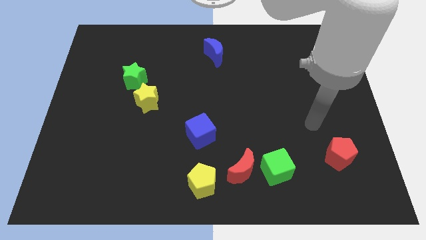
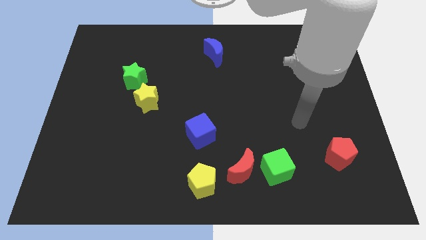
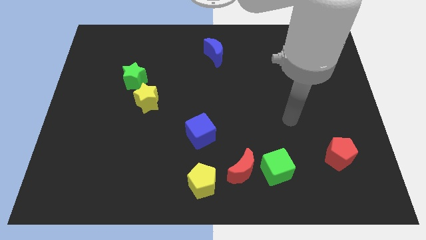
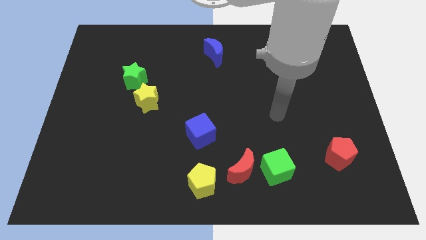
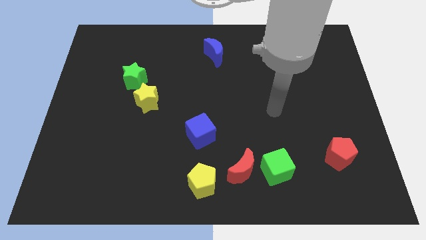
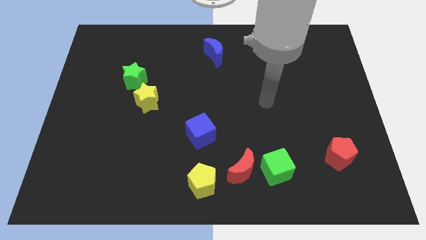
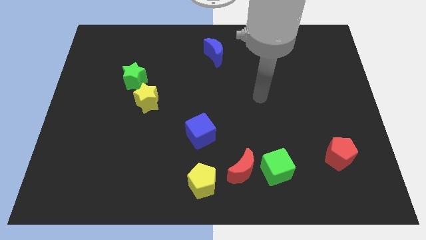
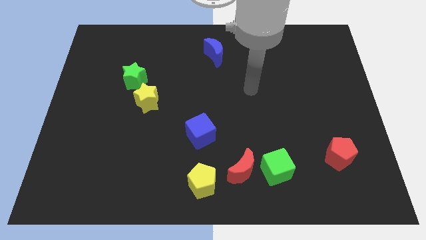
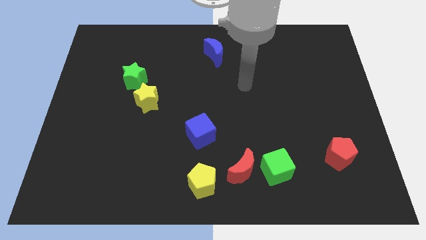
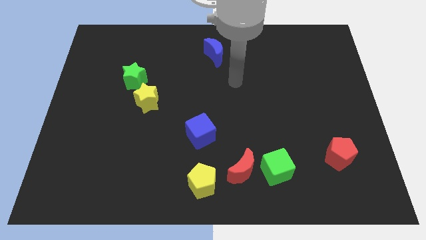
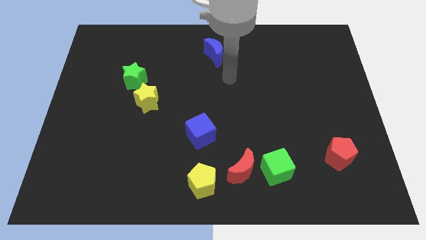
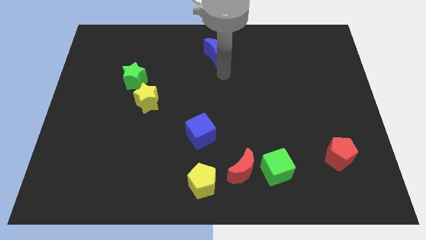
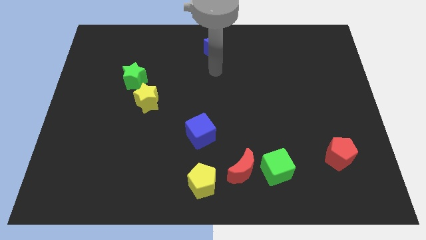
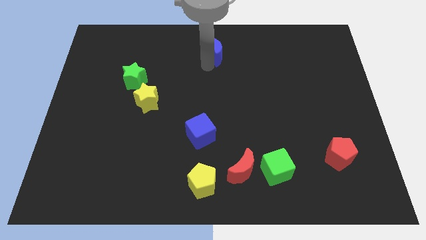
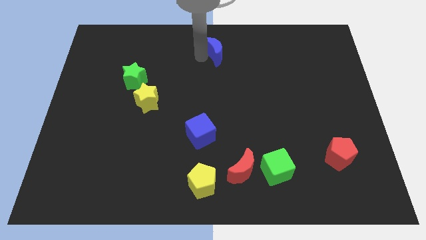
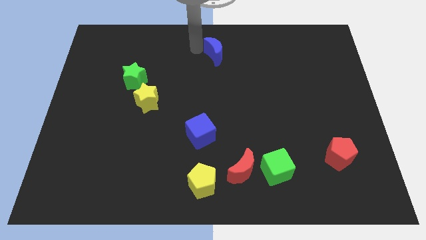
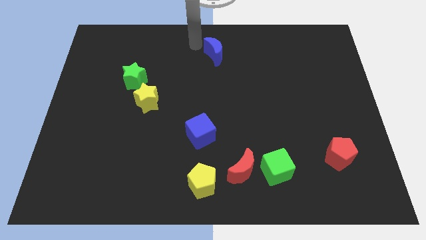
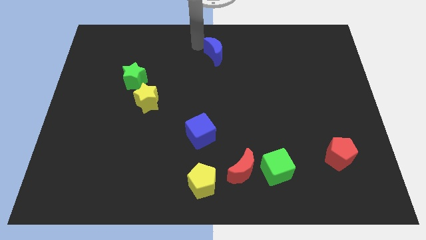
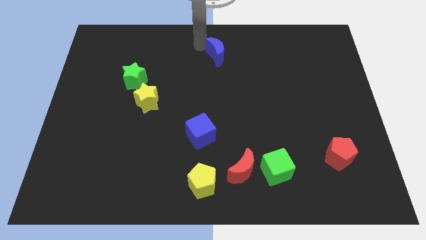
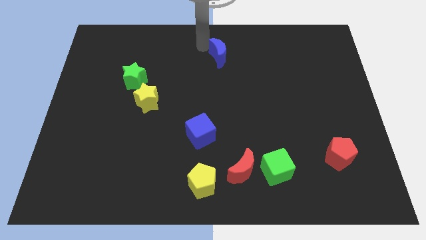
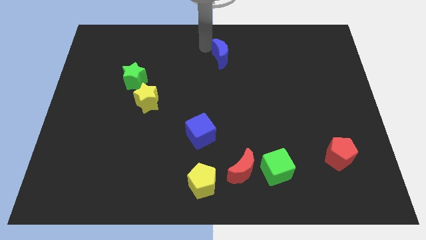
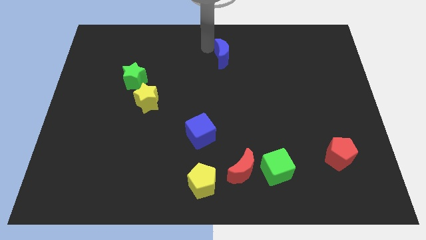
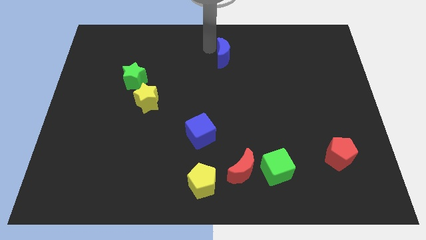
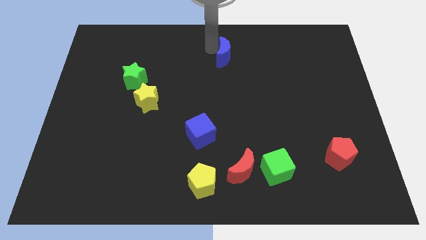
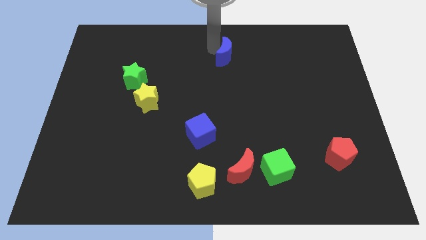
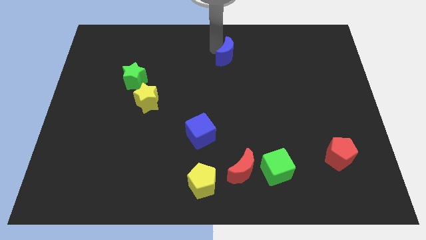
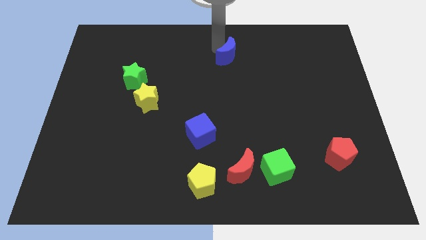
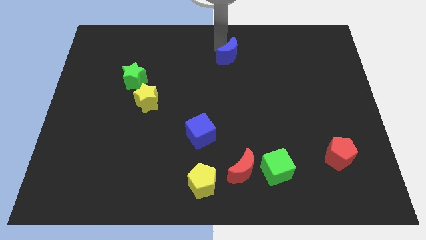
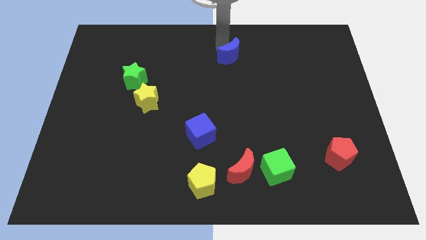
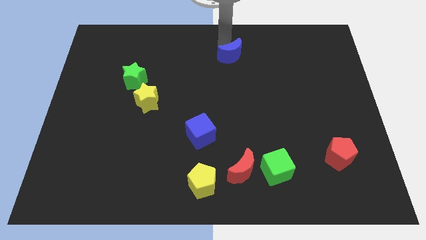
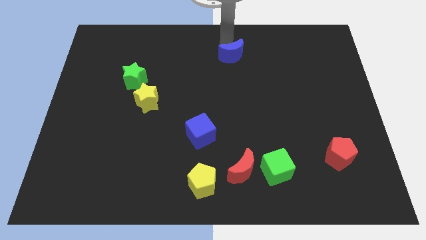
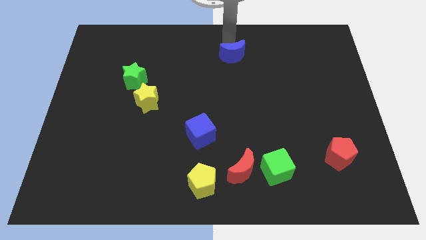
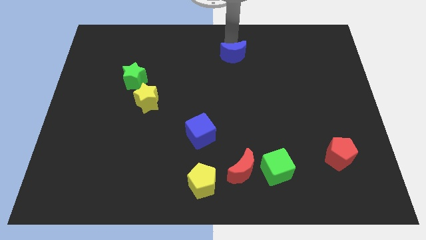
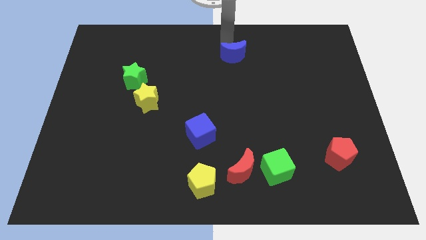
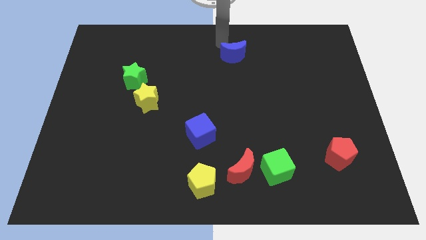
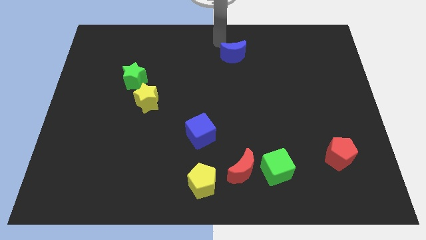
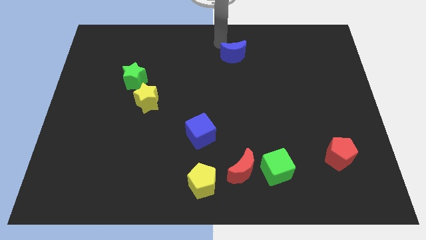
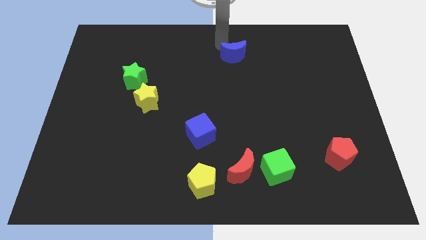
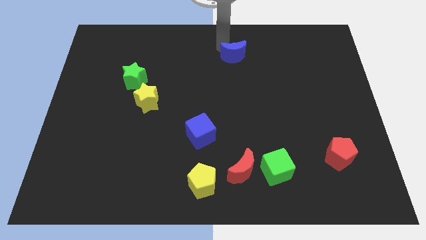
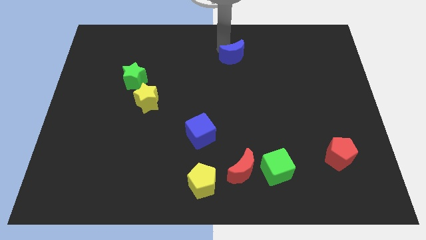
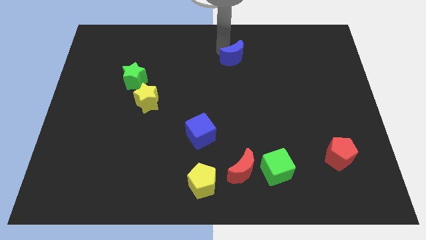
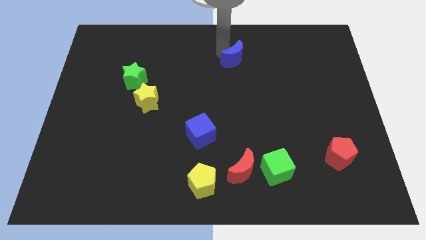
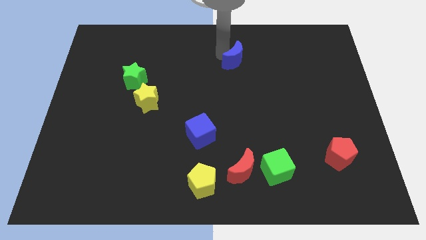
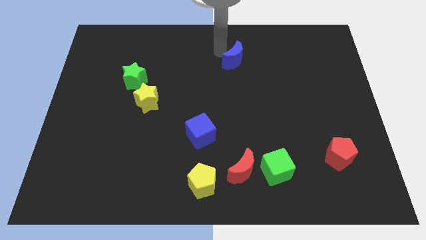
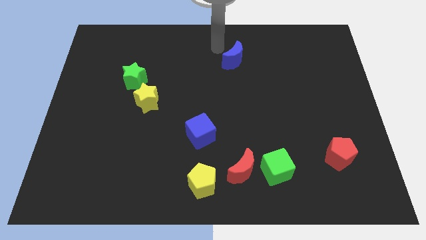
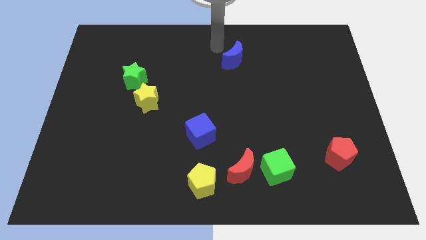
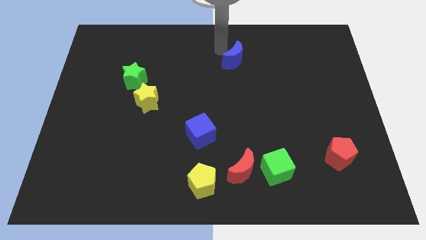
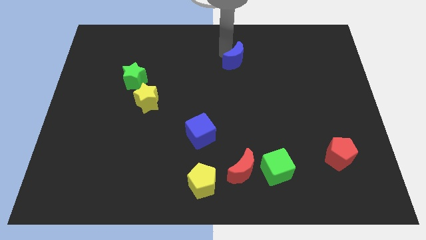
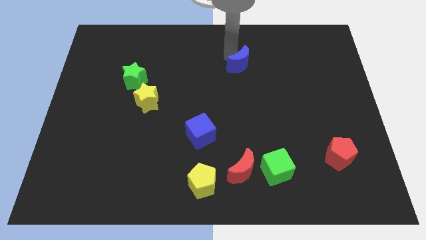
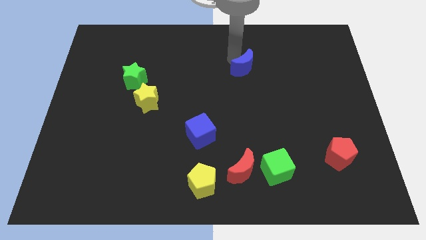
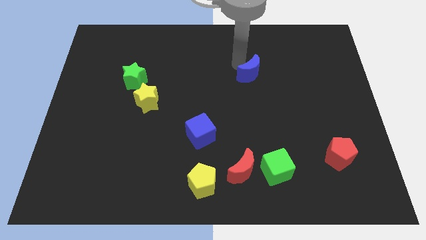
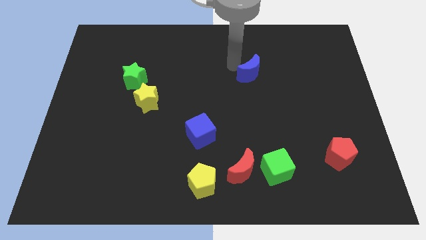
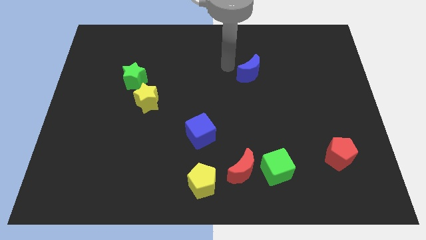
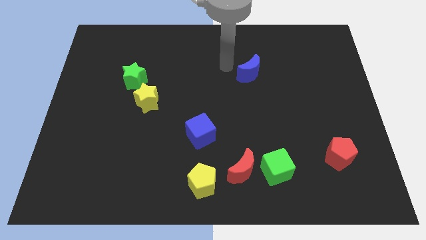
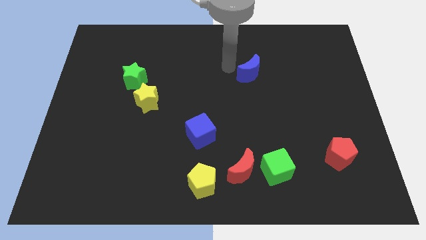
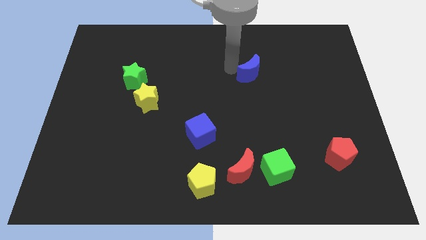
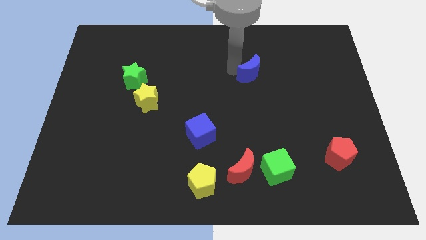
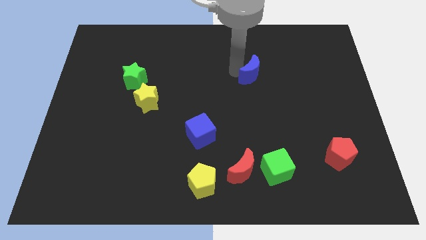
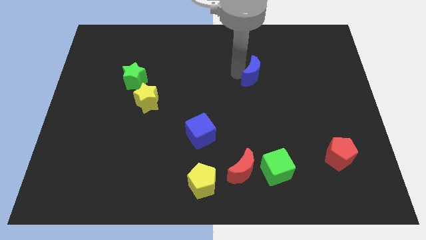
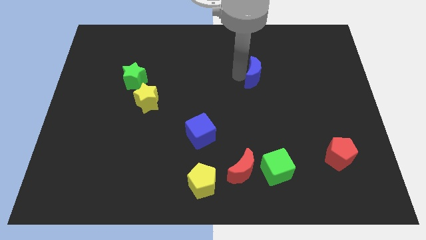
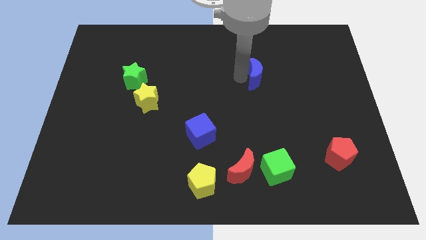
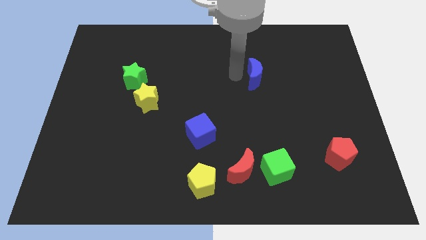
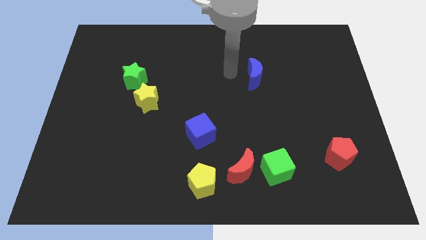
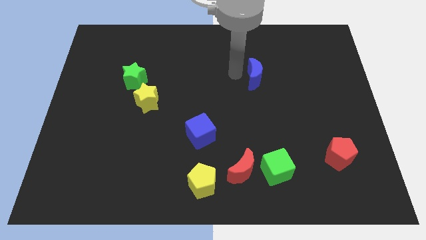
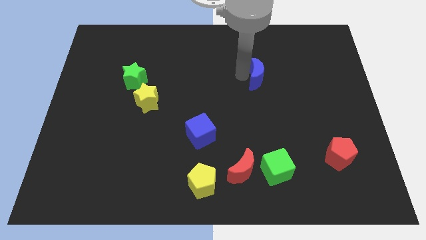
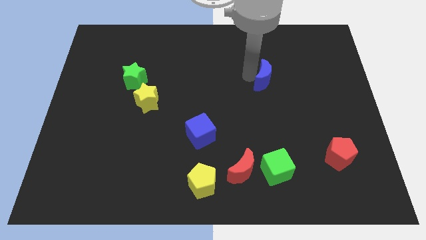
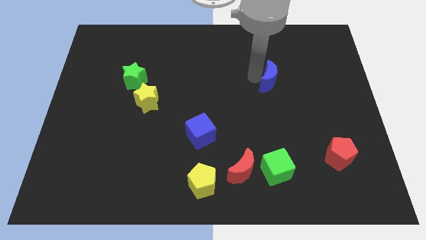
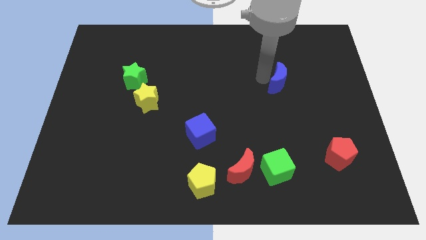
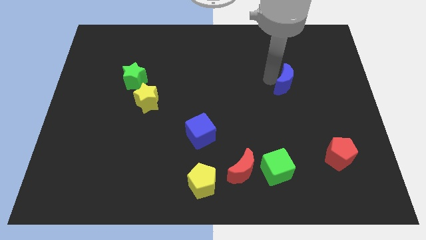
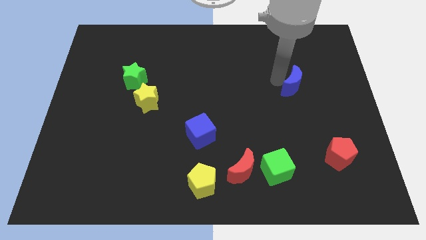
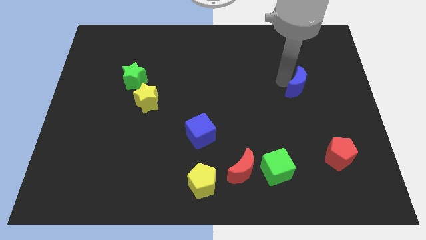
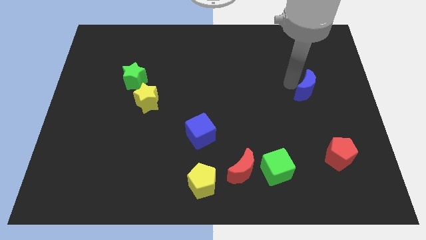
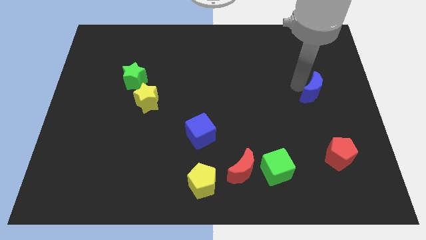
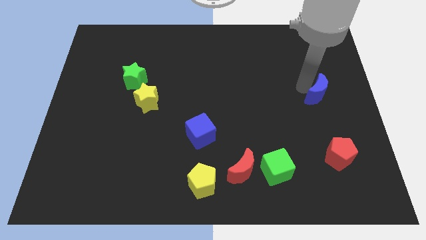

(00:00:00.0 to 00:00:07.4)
slide the blue moon to the right side

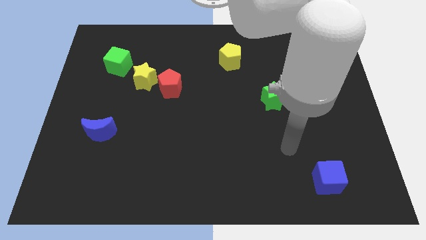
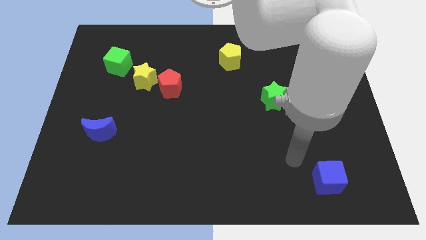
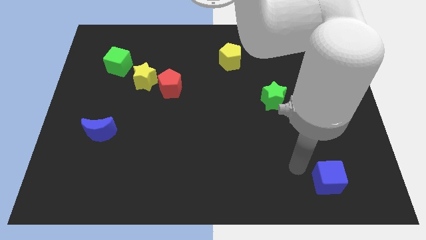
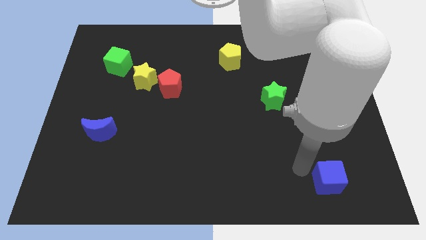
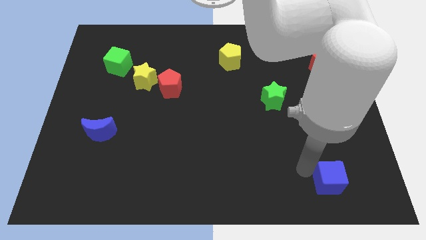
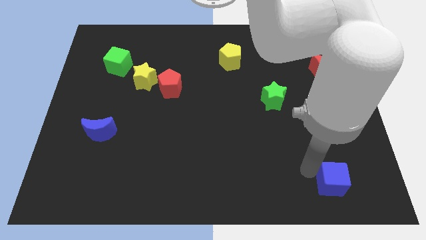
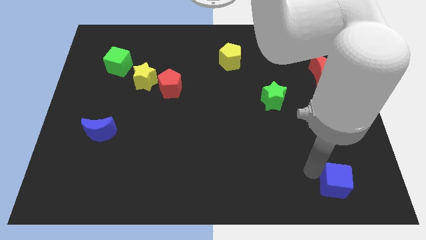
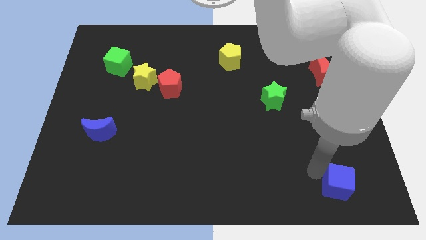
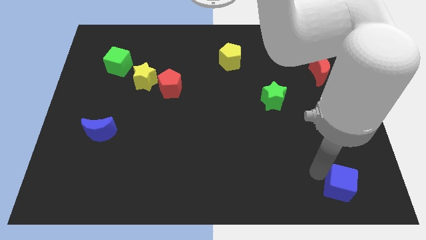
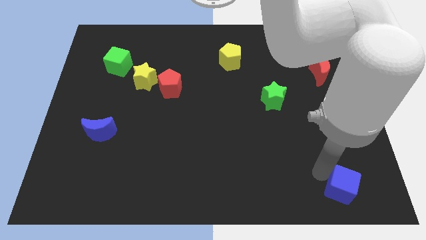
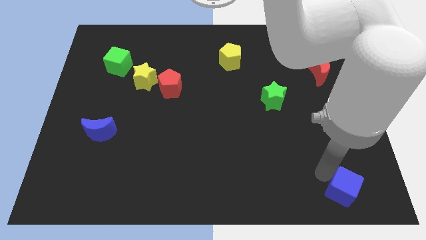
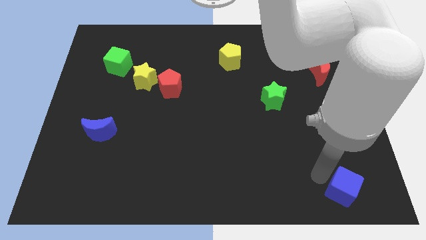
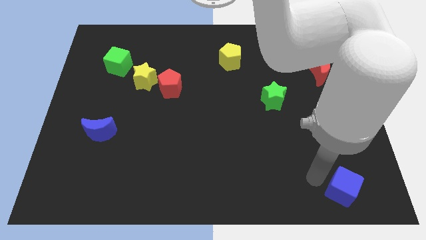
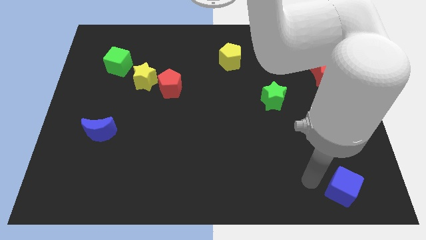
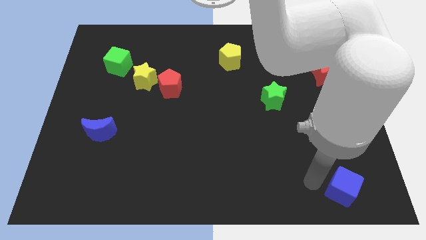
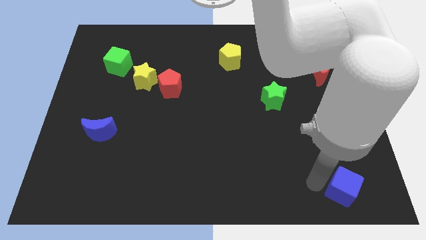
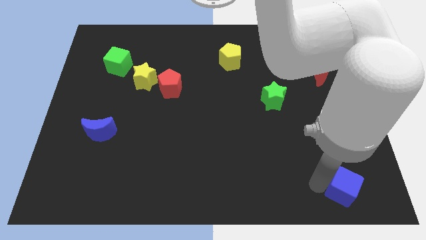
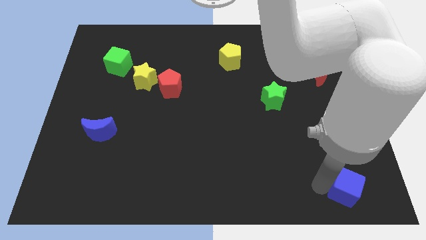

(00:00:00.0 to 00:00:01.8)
slide the blue cube to the bottom right of the board
